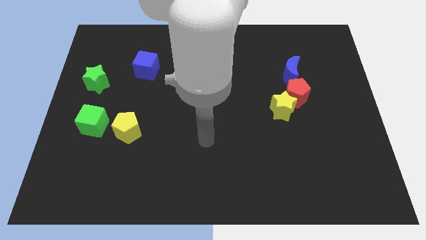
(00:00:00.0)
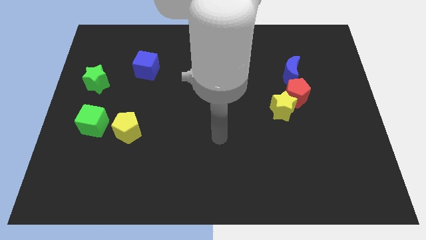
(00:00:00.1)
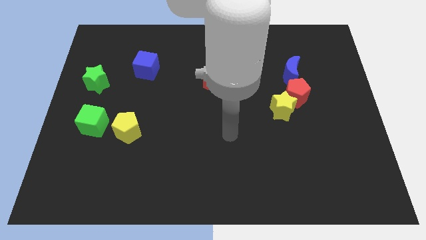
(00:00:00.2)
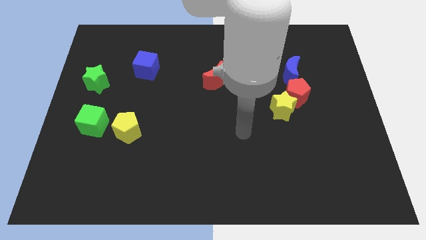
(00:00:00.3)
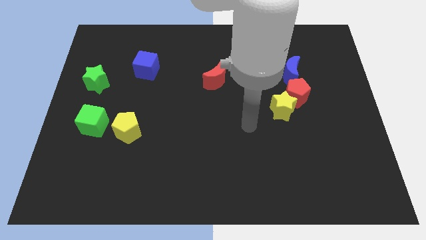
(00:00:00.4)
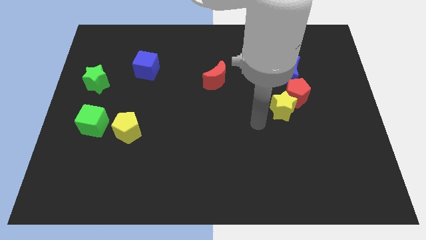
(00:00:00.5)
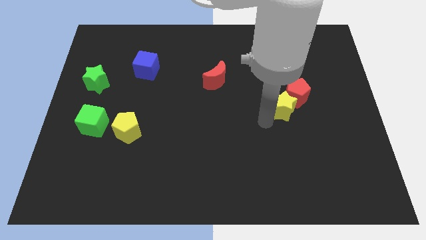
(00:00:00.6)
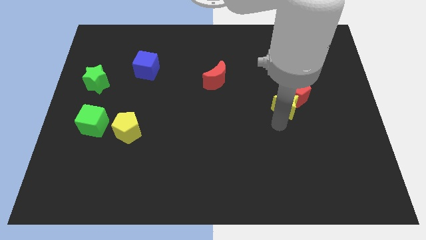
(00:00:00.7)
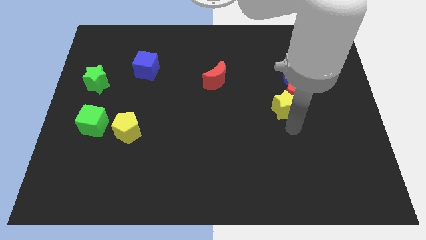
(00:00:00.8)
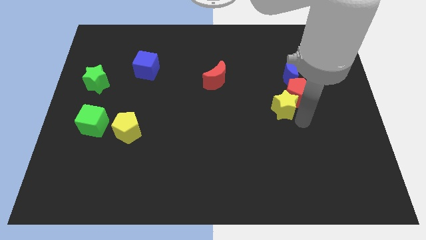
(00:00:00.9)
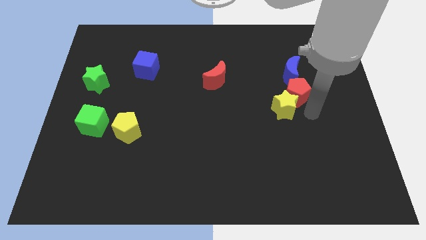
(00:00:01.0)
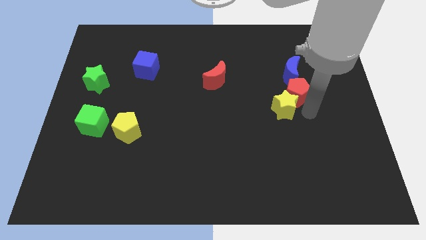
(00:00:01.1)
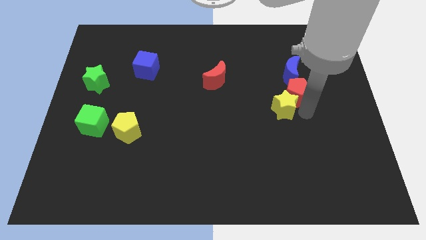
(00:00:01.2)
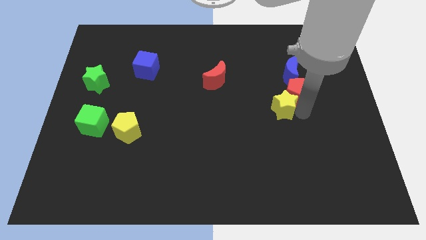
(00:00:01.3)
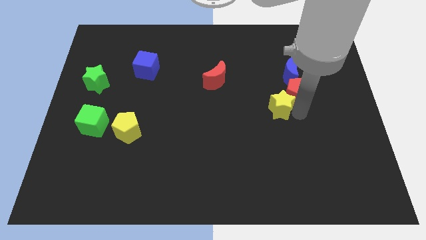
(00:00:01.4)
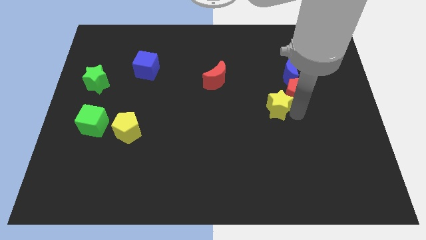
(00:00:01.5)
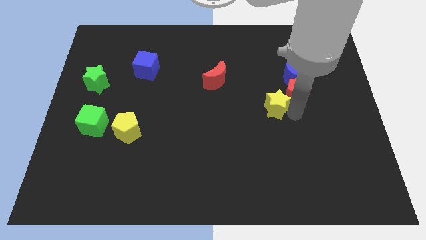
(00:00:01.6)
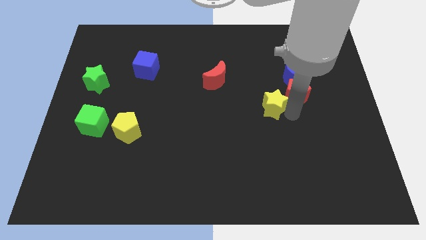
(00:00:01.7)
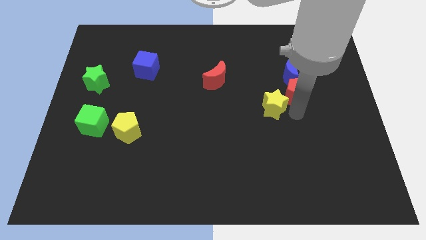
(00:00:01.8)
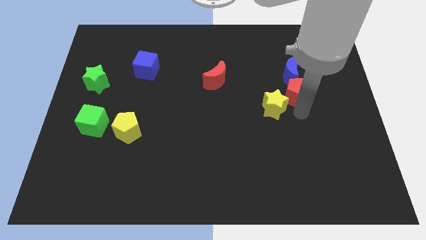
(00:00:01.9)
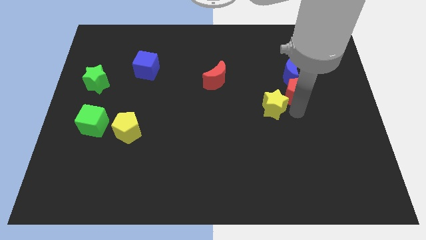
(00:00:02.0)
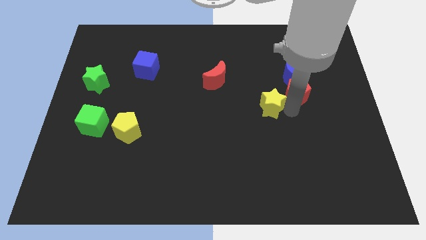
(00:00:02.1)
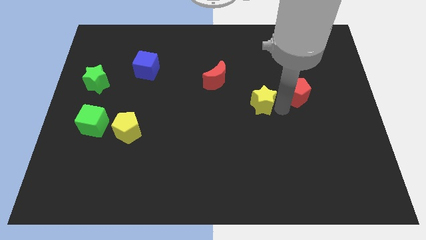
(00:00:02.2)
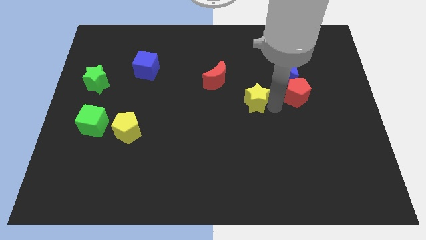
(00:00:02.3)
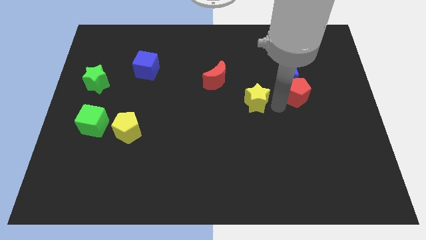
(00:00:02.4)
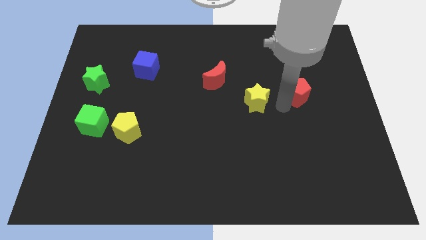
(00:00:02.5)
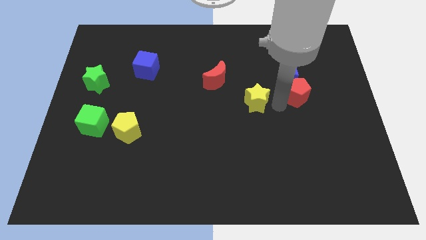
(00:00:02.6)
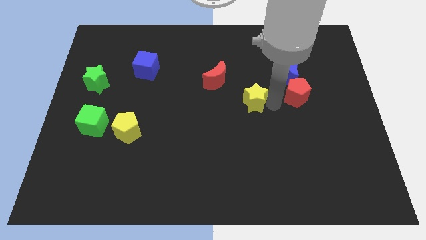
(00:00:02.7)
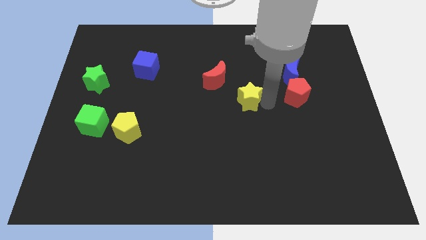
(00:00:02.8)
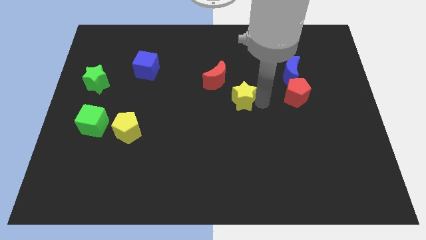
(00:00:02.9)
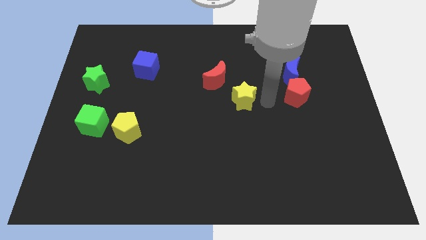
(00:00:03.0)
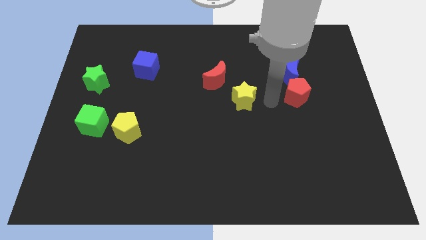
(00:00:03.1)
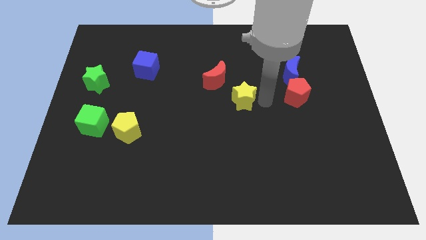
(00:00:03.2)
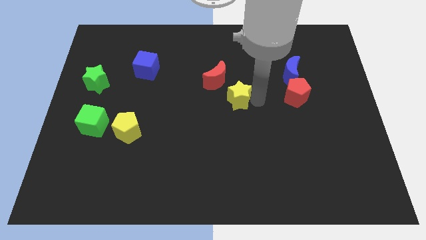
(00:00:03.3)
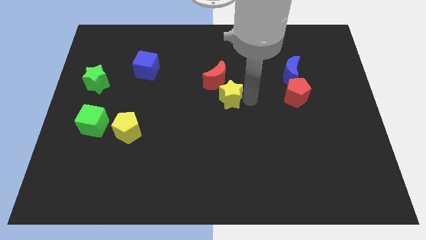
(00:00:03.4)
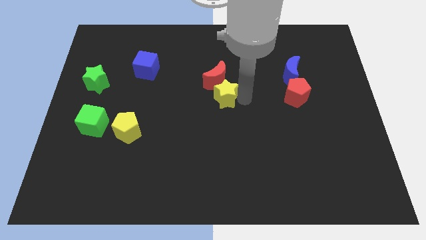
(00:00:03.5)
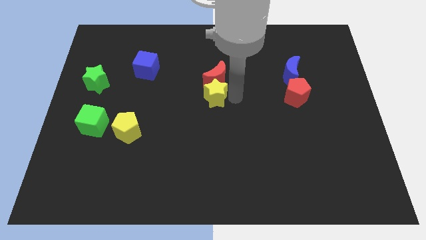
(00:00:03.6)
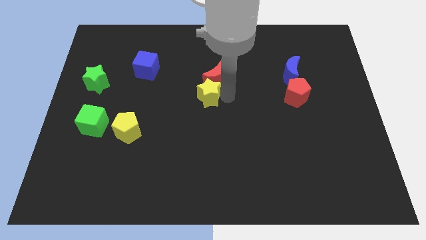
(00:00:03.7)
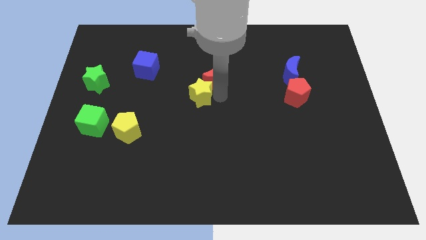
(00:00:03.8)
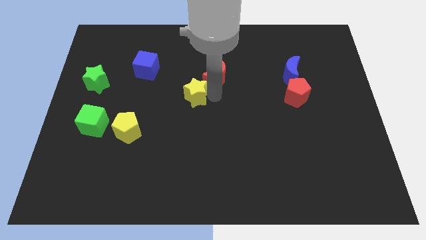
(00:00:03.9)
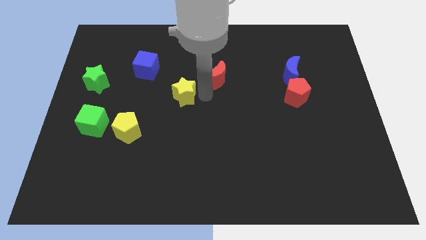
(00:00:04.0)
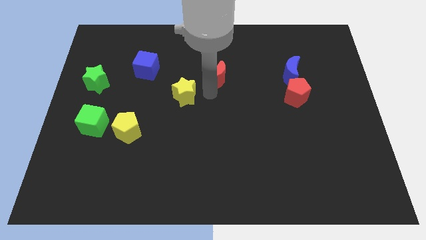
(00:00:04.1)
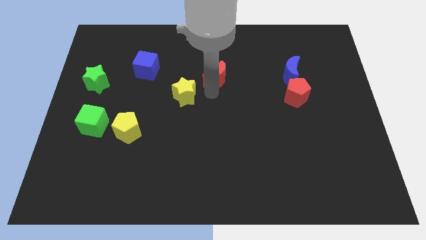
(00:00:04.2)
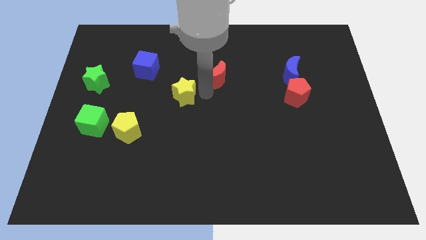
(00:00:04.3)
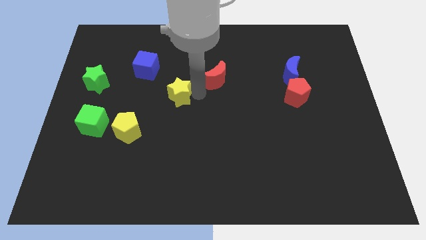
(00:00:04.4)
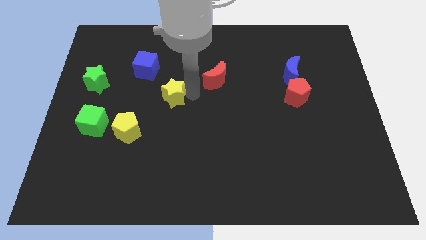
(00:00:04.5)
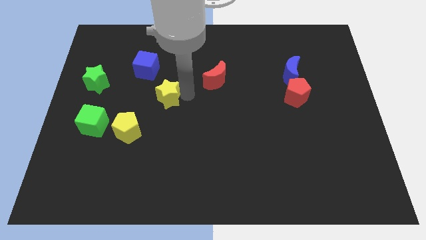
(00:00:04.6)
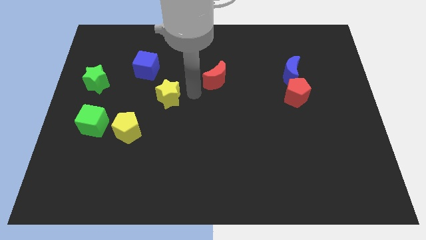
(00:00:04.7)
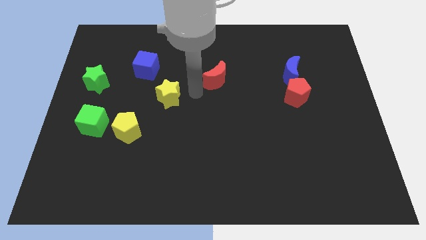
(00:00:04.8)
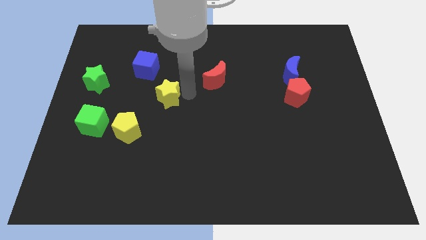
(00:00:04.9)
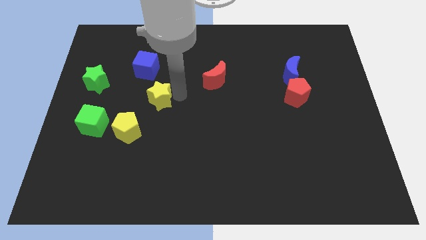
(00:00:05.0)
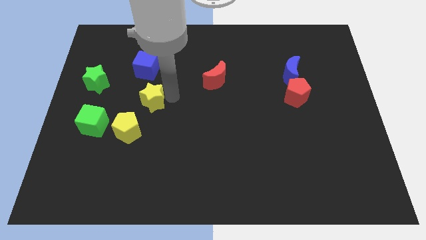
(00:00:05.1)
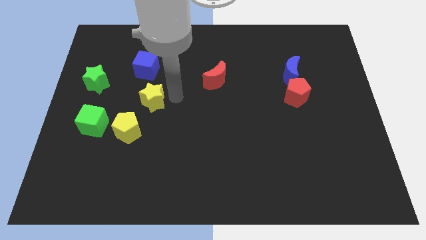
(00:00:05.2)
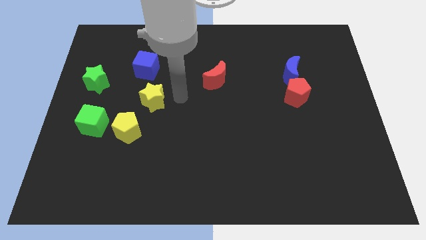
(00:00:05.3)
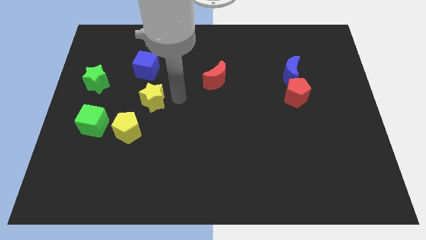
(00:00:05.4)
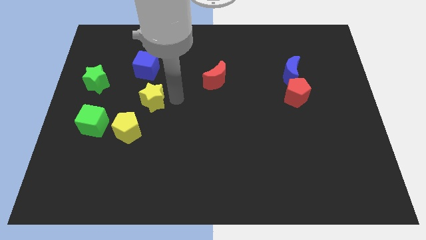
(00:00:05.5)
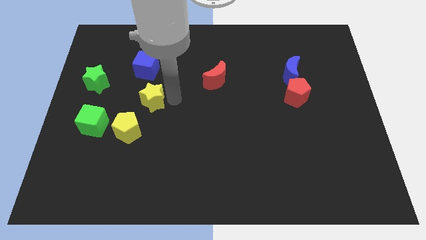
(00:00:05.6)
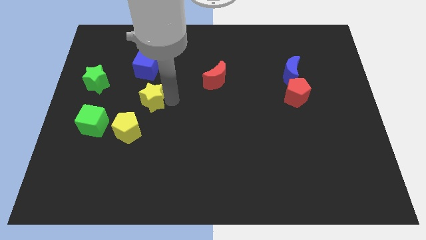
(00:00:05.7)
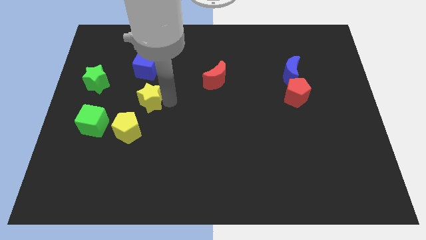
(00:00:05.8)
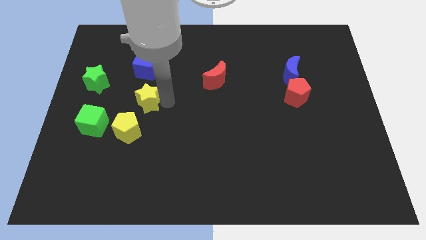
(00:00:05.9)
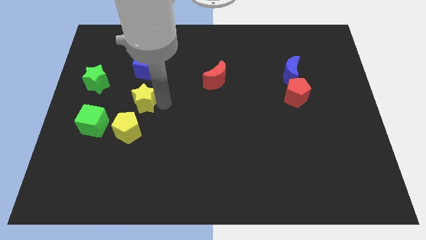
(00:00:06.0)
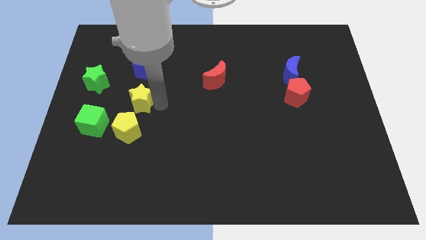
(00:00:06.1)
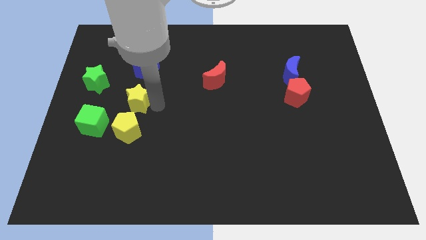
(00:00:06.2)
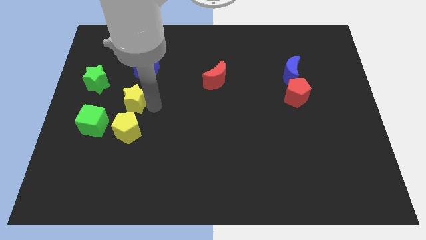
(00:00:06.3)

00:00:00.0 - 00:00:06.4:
slide the yellow star to the bottom right of the green star

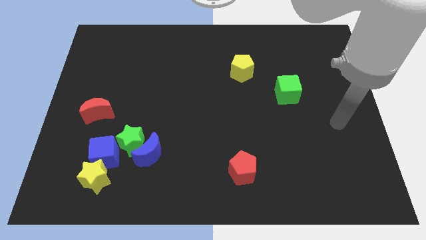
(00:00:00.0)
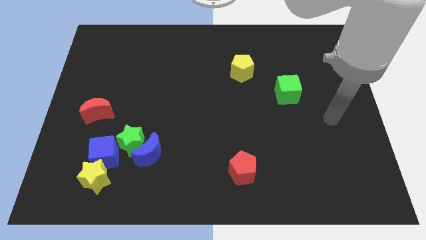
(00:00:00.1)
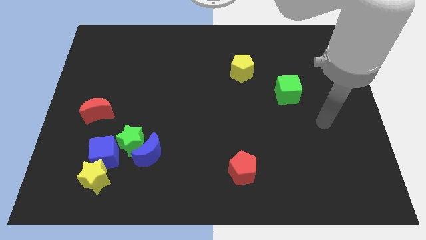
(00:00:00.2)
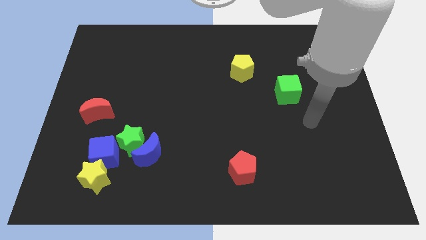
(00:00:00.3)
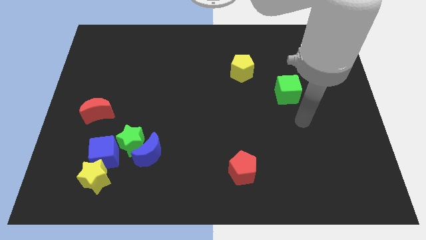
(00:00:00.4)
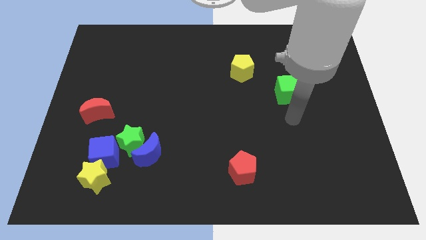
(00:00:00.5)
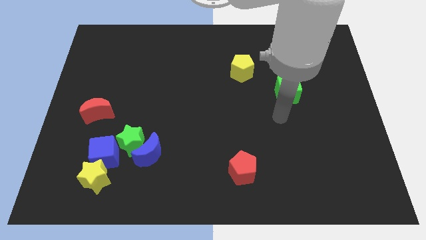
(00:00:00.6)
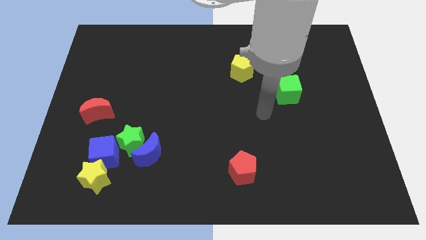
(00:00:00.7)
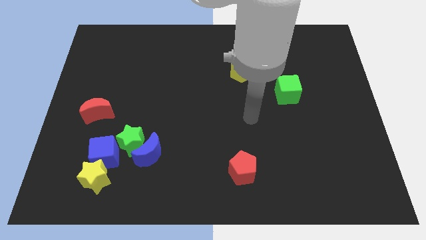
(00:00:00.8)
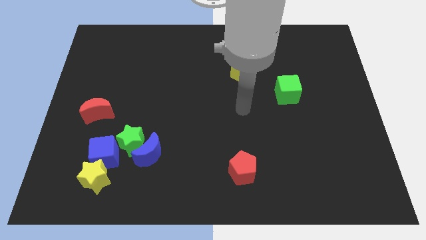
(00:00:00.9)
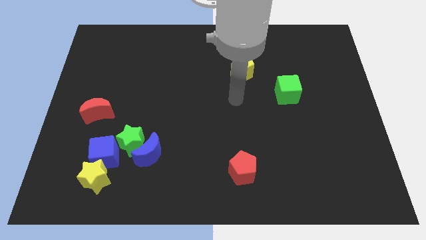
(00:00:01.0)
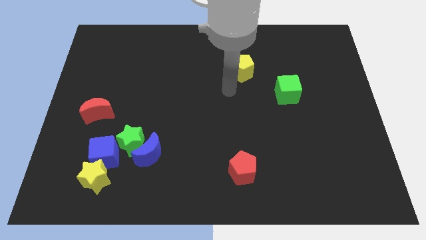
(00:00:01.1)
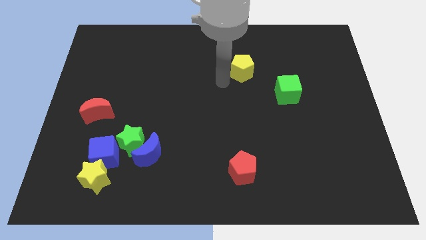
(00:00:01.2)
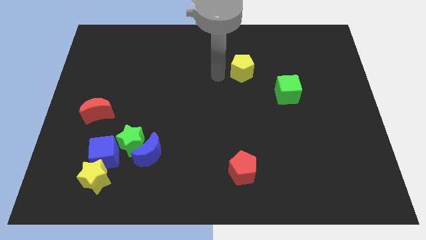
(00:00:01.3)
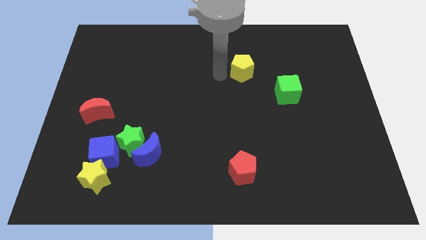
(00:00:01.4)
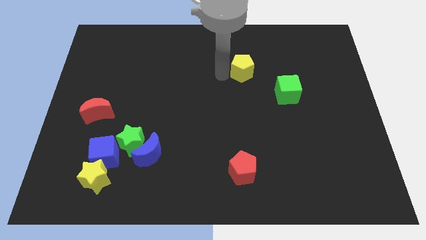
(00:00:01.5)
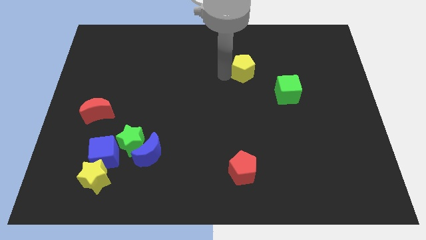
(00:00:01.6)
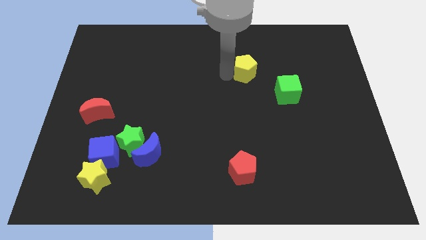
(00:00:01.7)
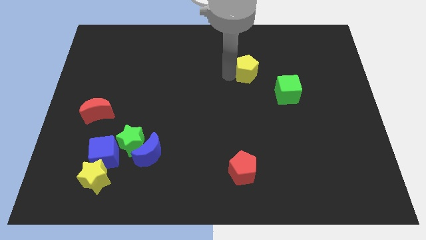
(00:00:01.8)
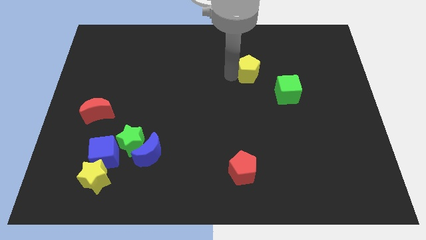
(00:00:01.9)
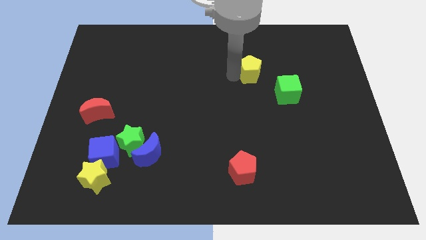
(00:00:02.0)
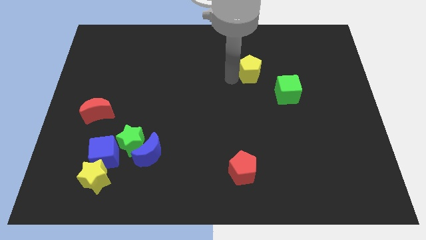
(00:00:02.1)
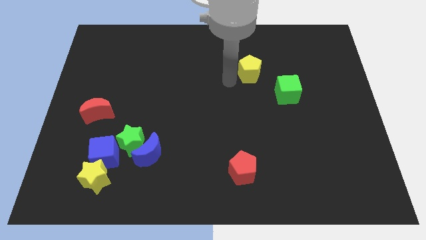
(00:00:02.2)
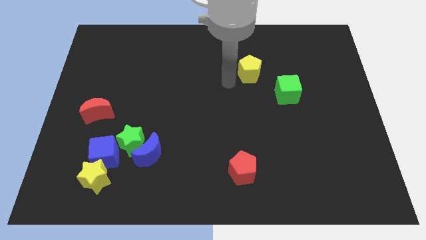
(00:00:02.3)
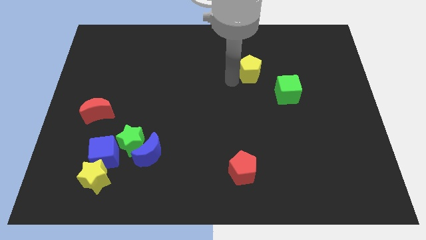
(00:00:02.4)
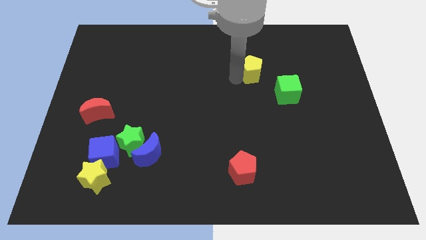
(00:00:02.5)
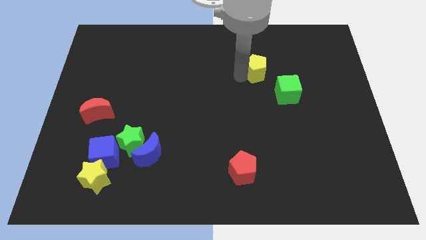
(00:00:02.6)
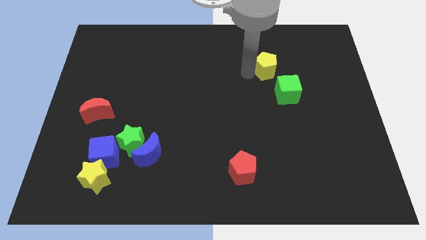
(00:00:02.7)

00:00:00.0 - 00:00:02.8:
move the yellow pentagon to the top side of the green cube
